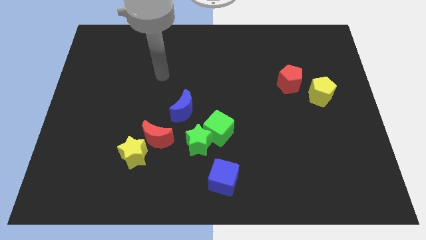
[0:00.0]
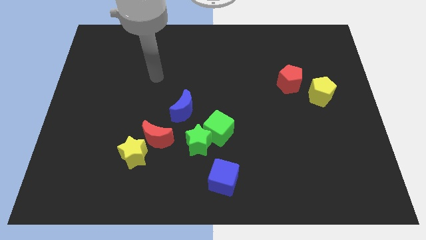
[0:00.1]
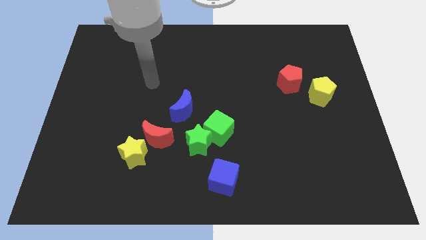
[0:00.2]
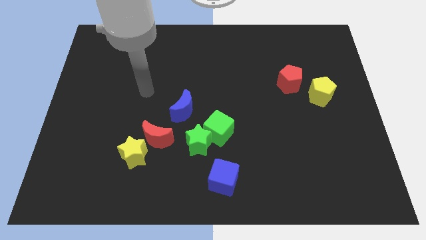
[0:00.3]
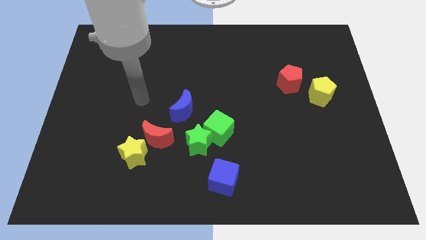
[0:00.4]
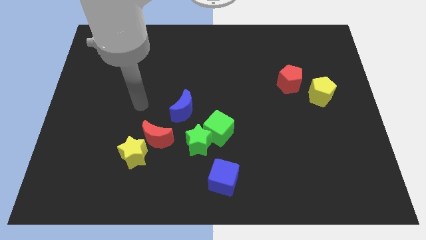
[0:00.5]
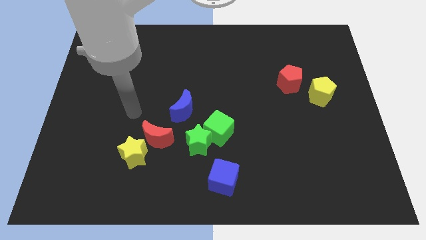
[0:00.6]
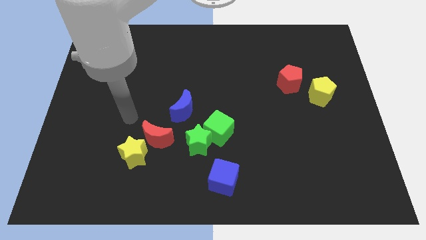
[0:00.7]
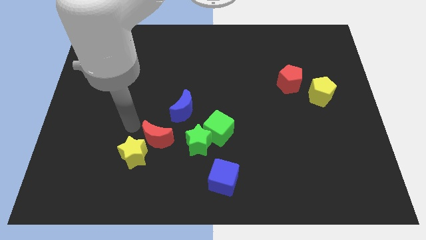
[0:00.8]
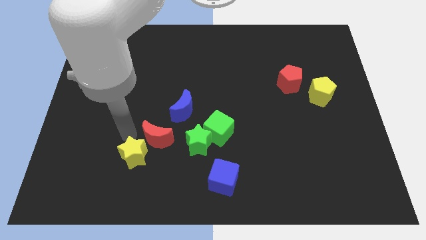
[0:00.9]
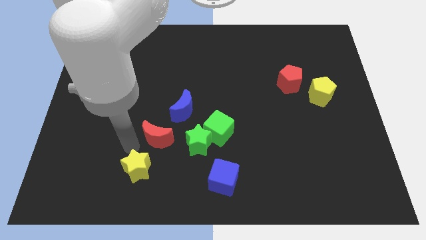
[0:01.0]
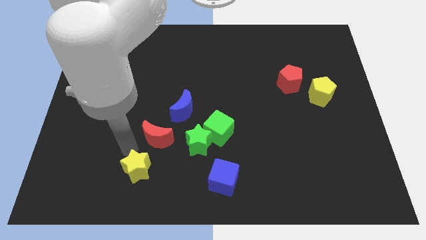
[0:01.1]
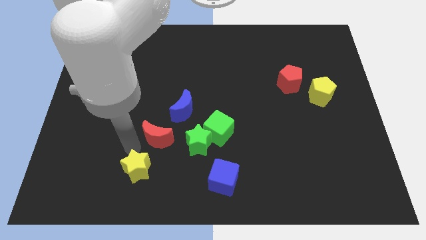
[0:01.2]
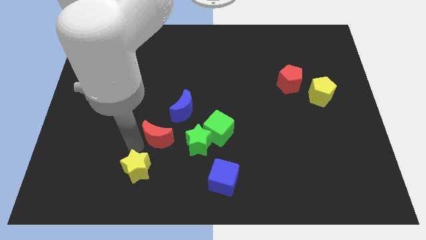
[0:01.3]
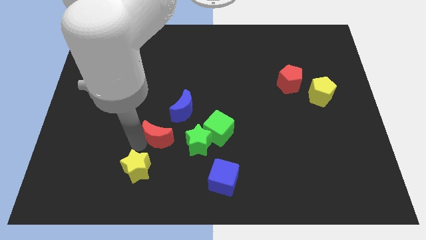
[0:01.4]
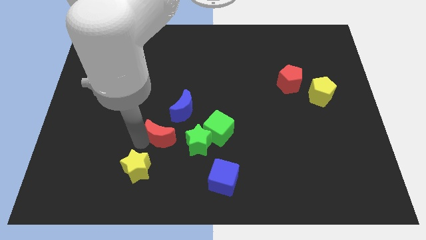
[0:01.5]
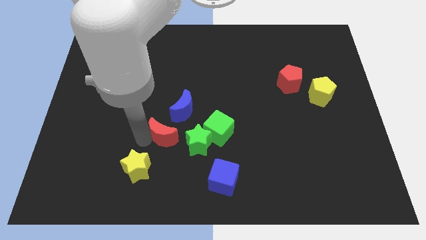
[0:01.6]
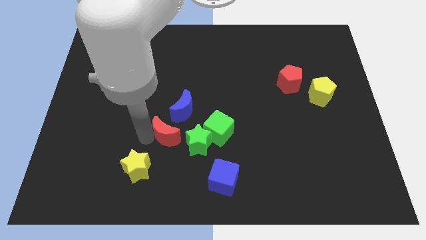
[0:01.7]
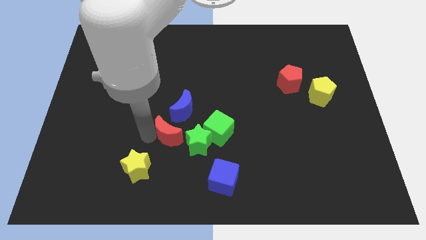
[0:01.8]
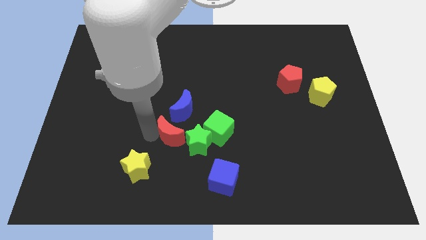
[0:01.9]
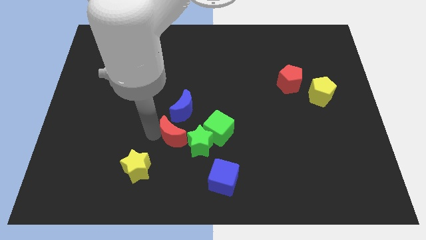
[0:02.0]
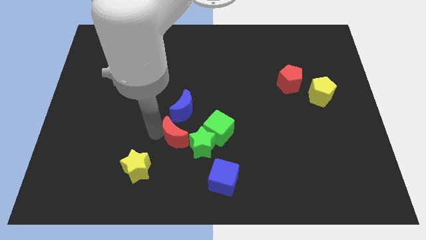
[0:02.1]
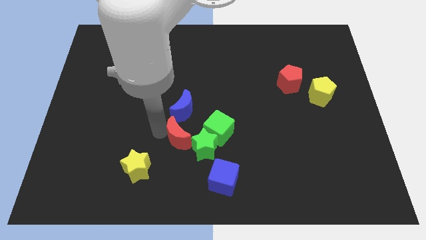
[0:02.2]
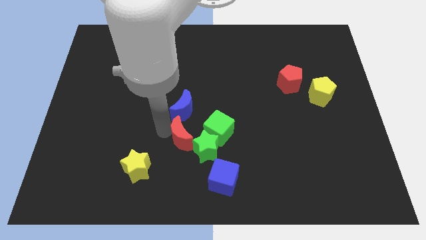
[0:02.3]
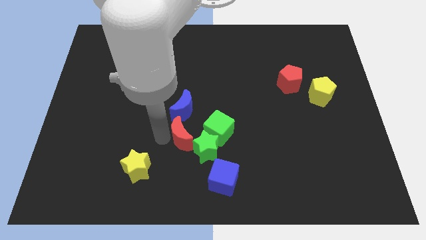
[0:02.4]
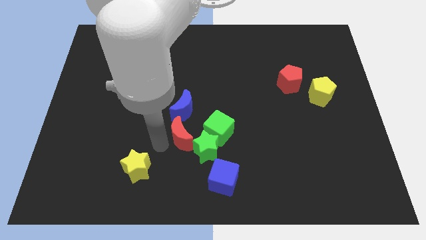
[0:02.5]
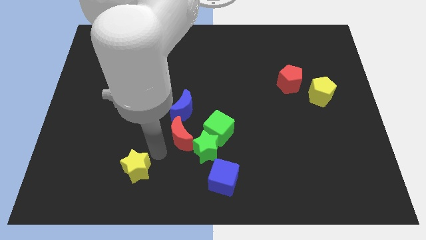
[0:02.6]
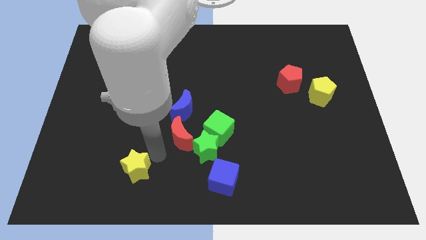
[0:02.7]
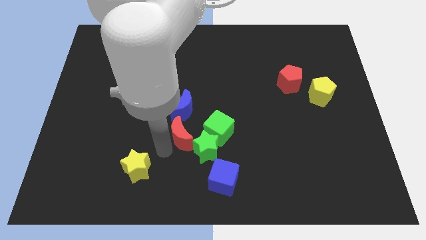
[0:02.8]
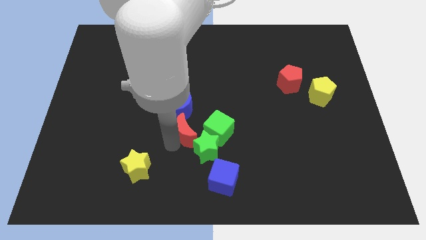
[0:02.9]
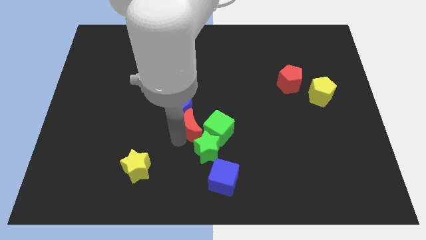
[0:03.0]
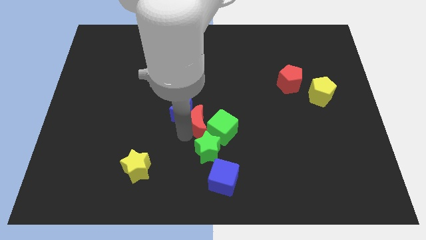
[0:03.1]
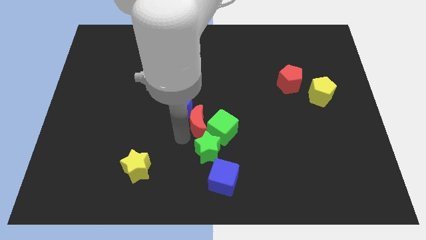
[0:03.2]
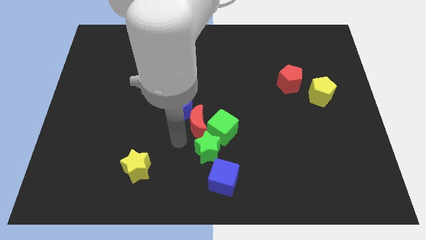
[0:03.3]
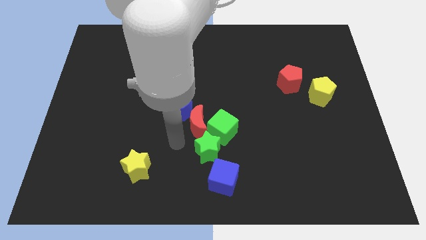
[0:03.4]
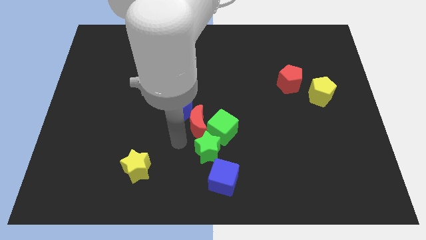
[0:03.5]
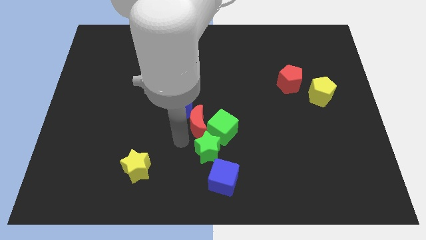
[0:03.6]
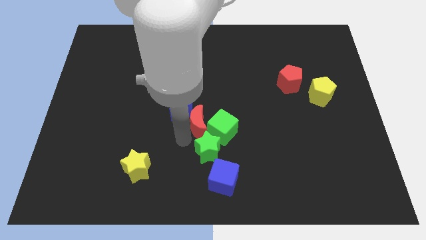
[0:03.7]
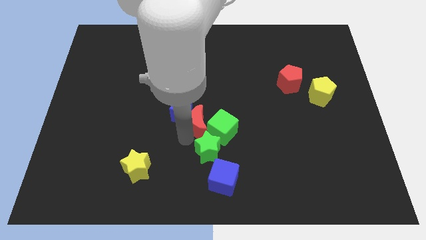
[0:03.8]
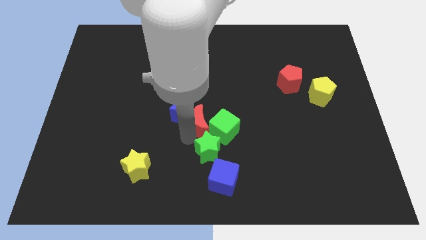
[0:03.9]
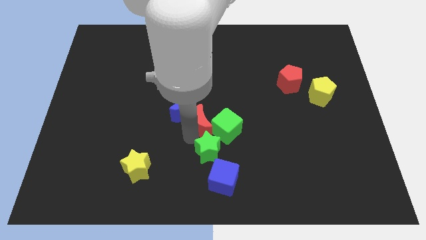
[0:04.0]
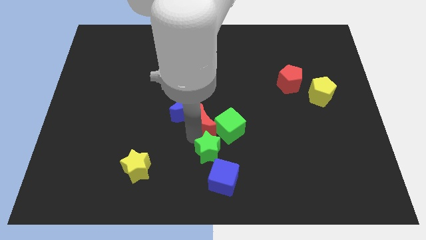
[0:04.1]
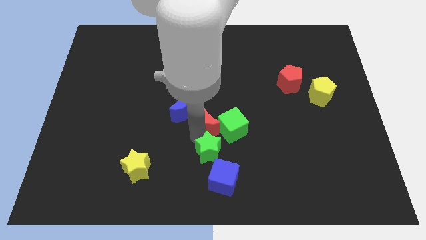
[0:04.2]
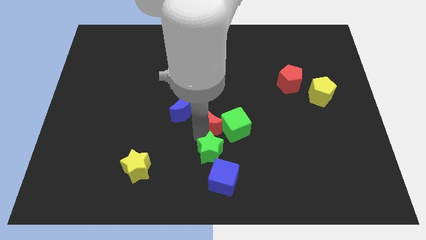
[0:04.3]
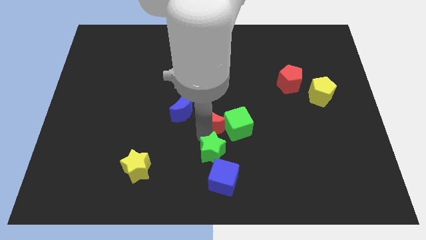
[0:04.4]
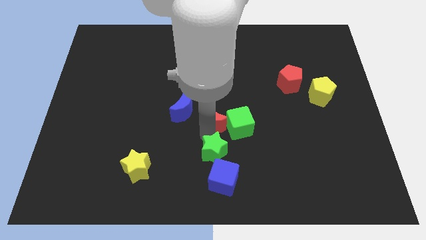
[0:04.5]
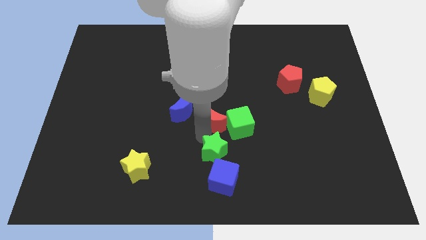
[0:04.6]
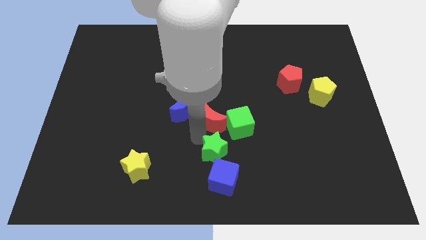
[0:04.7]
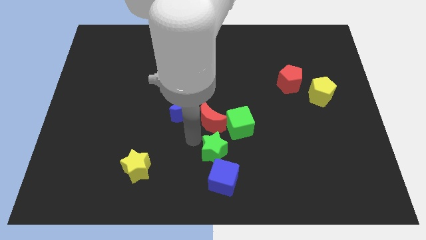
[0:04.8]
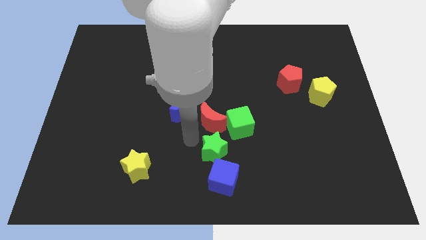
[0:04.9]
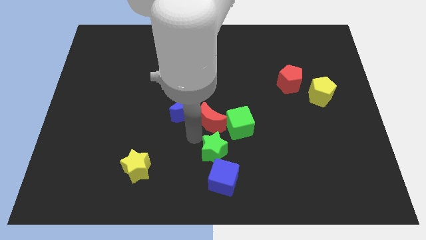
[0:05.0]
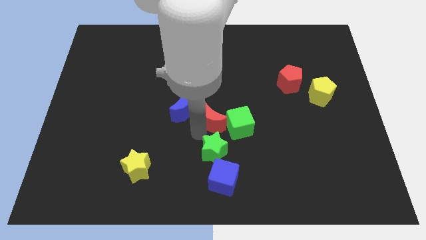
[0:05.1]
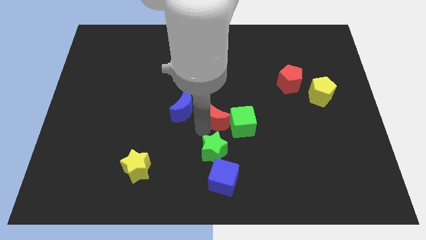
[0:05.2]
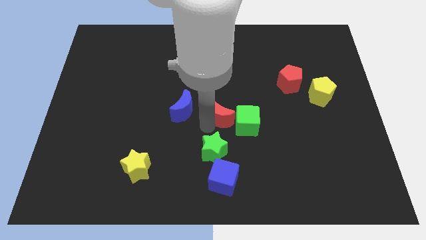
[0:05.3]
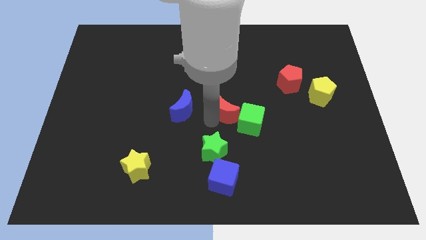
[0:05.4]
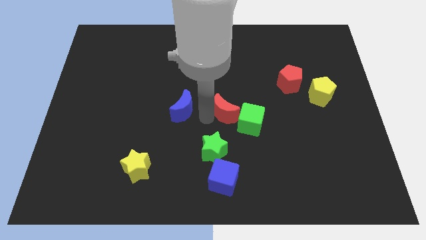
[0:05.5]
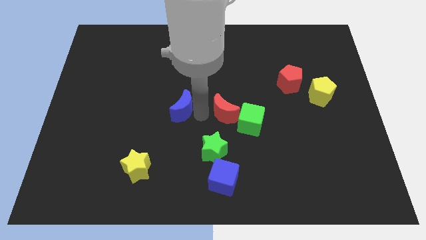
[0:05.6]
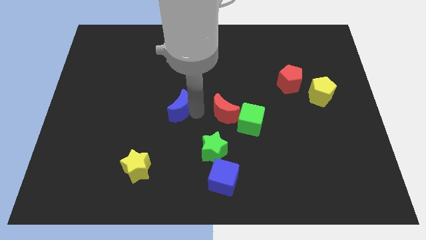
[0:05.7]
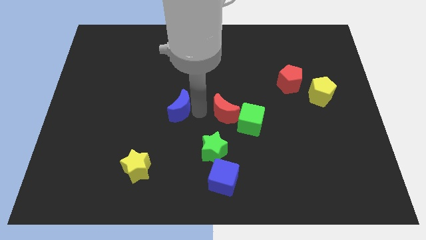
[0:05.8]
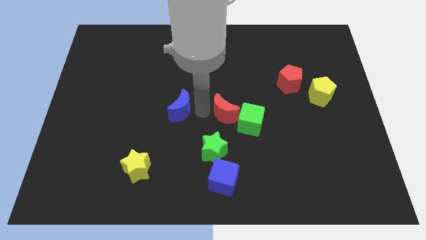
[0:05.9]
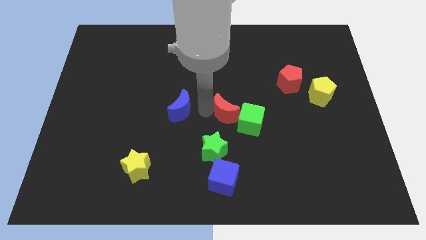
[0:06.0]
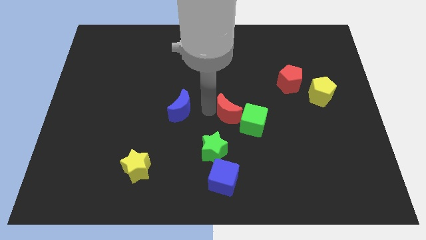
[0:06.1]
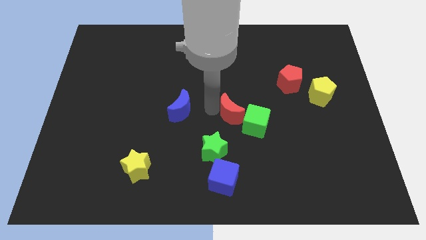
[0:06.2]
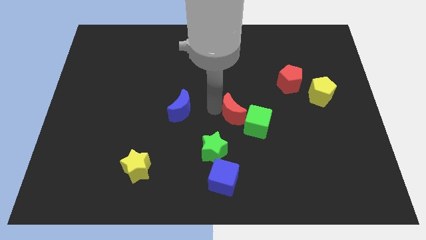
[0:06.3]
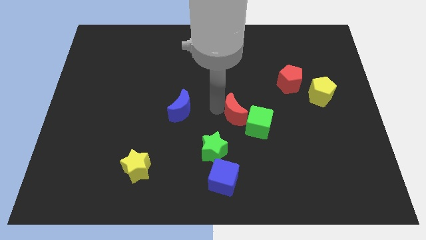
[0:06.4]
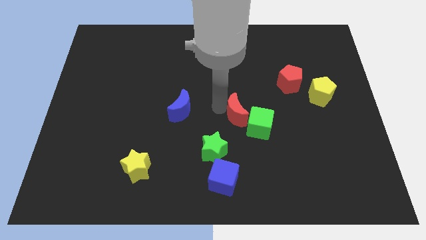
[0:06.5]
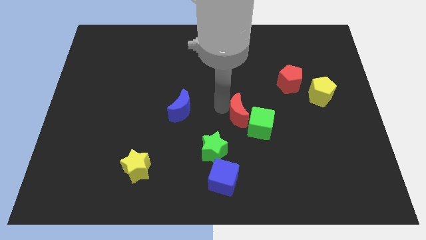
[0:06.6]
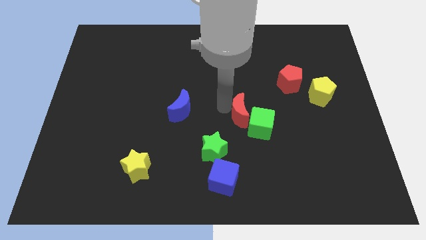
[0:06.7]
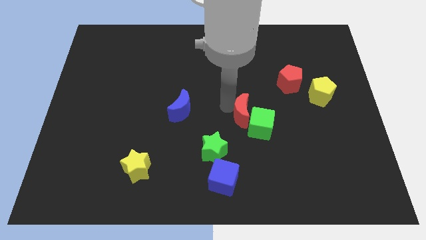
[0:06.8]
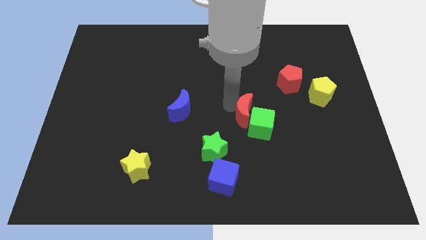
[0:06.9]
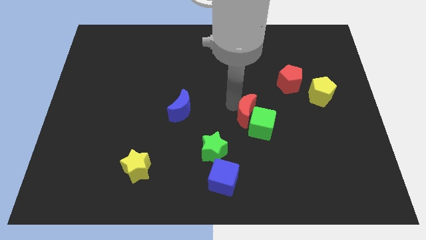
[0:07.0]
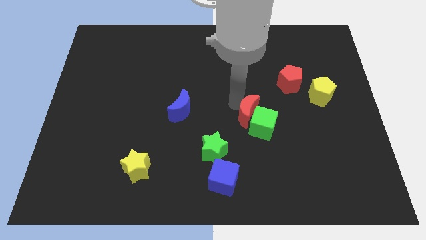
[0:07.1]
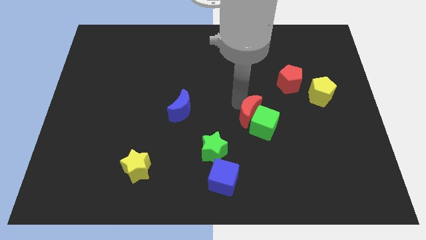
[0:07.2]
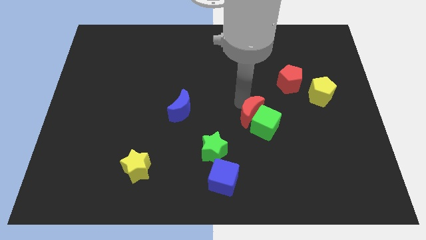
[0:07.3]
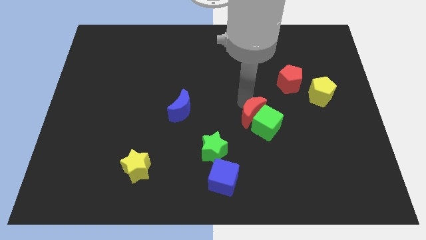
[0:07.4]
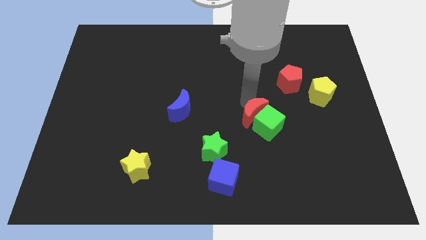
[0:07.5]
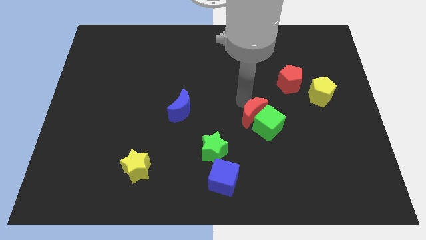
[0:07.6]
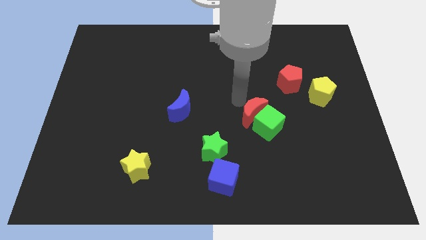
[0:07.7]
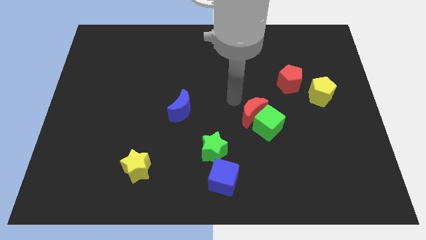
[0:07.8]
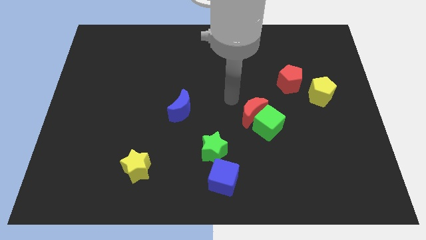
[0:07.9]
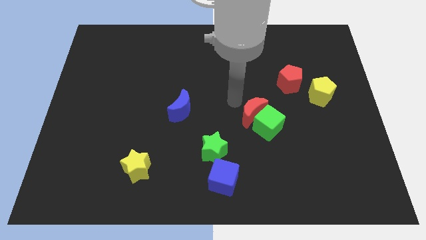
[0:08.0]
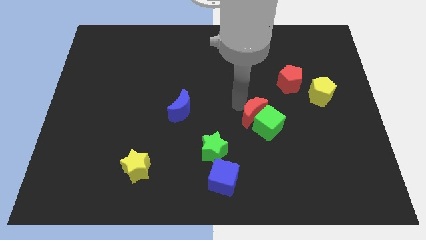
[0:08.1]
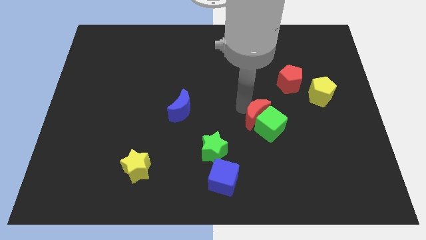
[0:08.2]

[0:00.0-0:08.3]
move the red moon right
